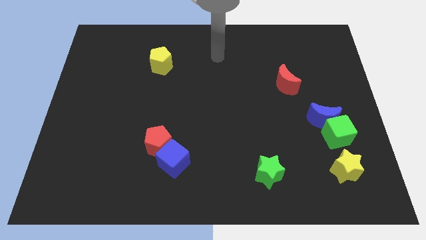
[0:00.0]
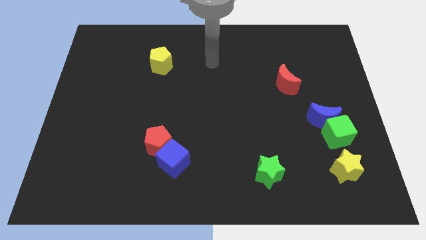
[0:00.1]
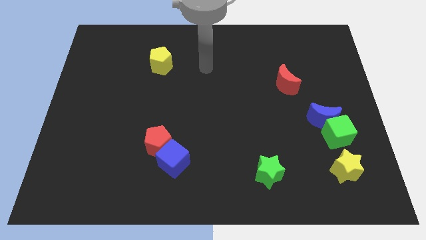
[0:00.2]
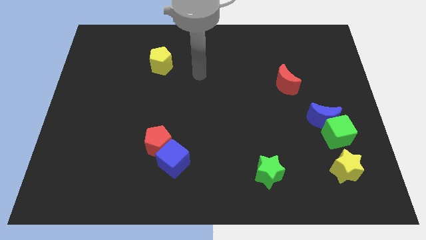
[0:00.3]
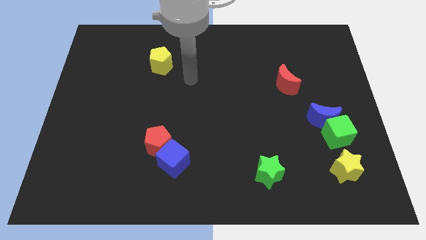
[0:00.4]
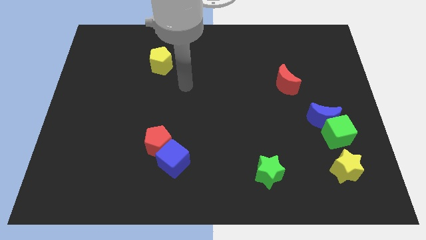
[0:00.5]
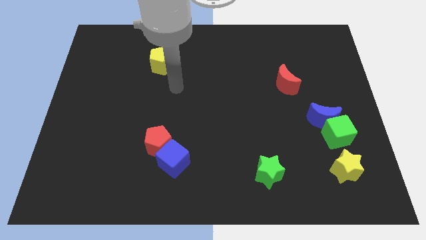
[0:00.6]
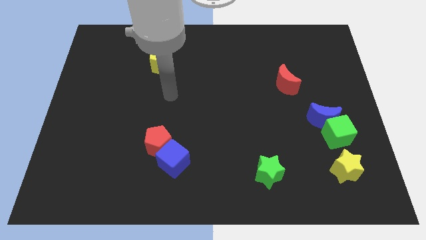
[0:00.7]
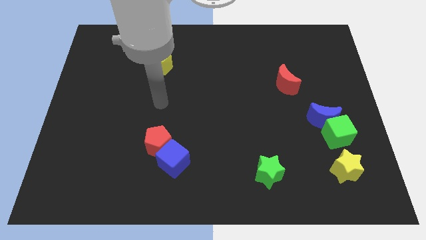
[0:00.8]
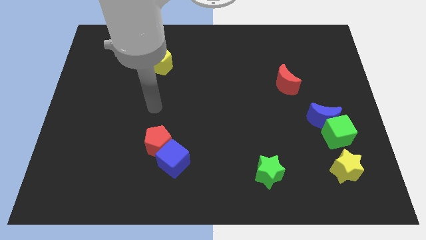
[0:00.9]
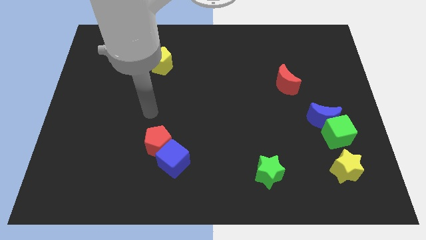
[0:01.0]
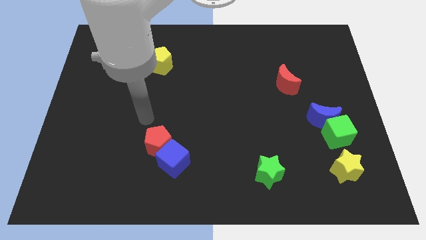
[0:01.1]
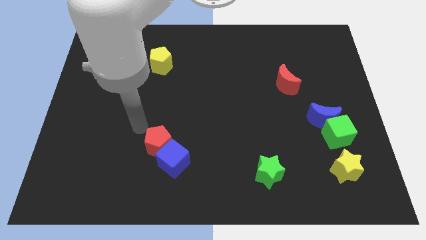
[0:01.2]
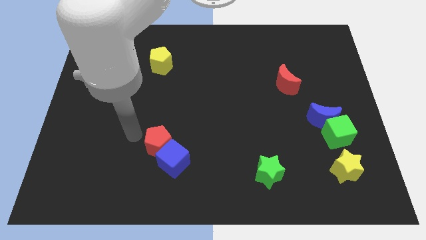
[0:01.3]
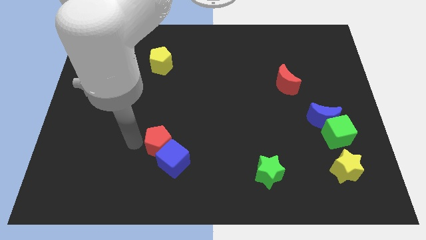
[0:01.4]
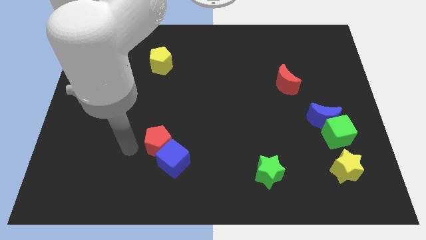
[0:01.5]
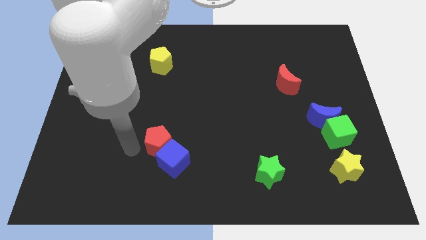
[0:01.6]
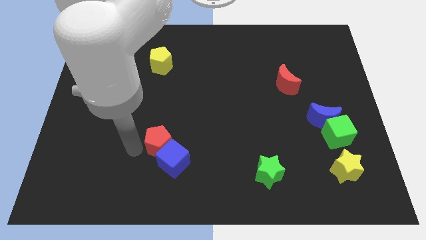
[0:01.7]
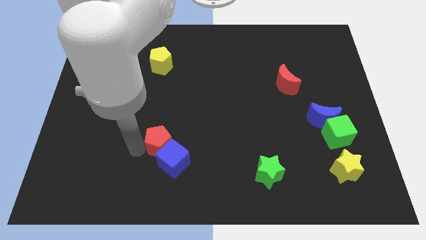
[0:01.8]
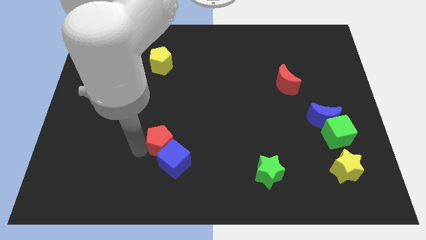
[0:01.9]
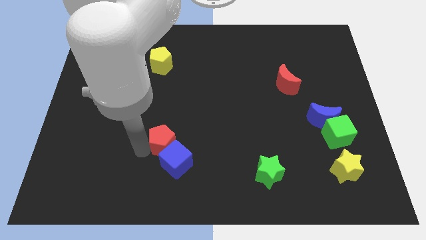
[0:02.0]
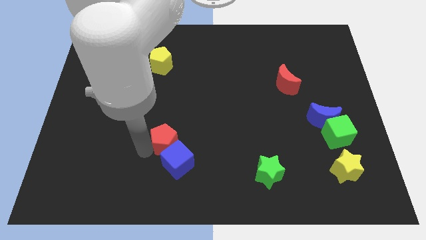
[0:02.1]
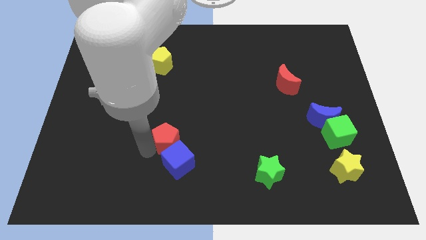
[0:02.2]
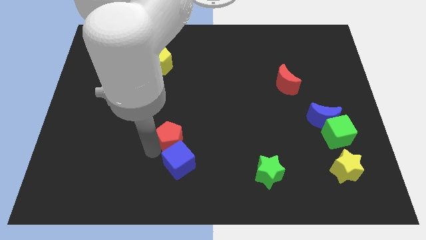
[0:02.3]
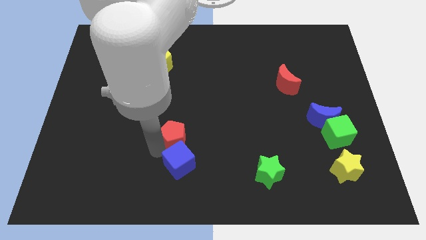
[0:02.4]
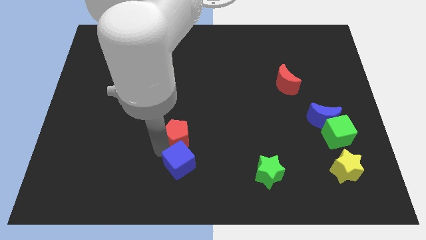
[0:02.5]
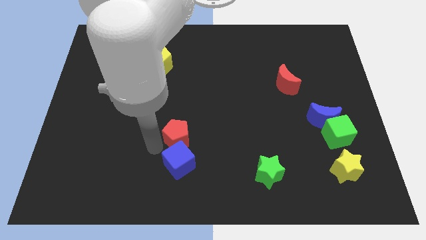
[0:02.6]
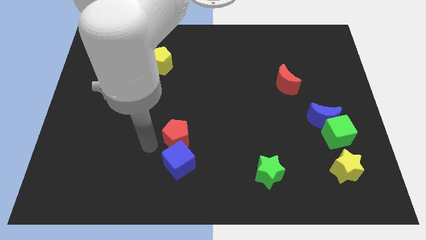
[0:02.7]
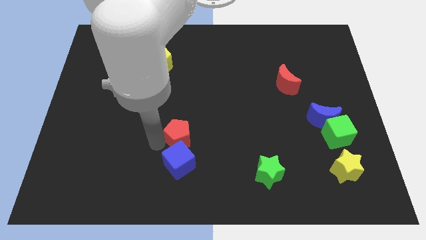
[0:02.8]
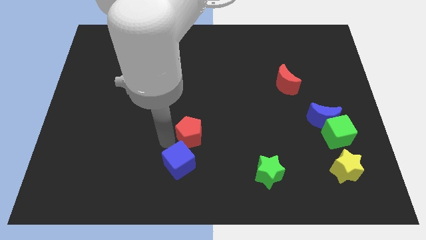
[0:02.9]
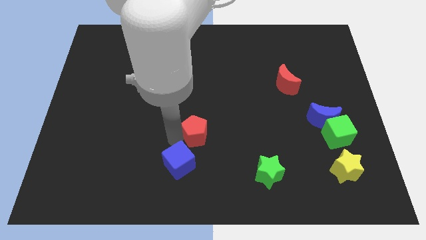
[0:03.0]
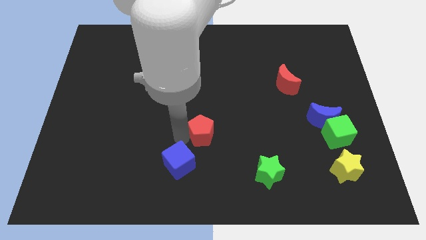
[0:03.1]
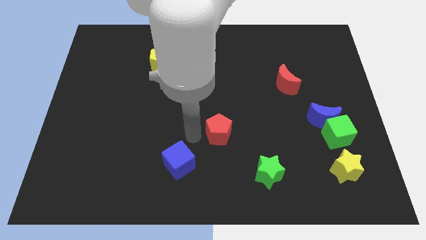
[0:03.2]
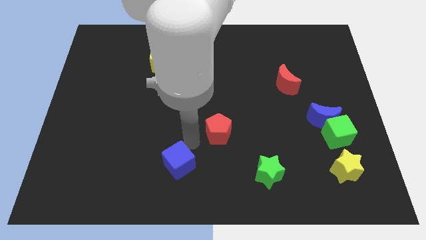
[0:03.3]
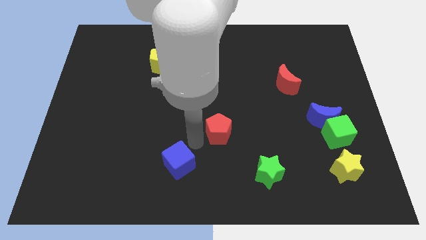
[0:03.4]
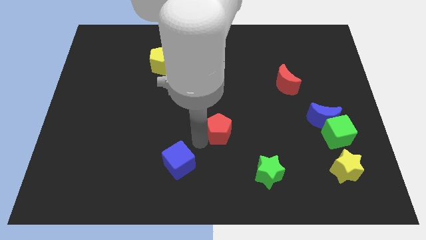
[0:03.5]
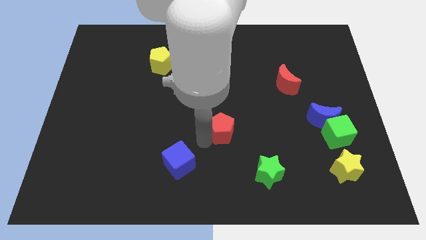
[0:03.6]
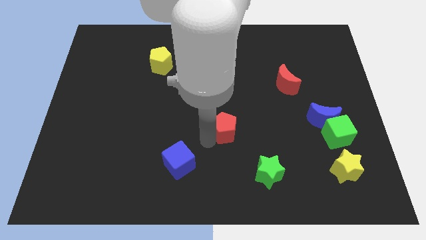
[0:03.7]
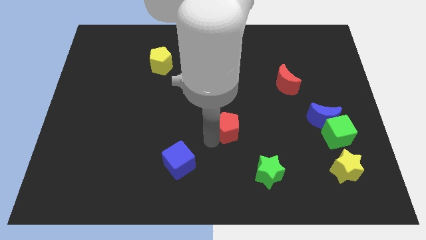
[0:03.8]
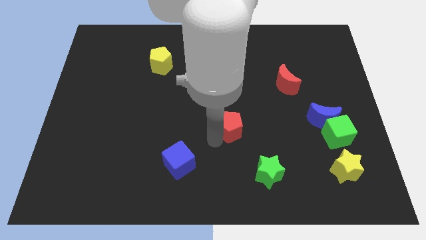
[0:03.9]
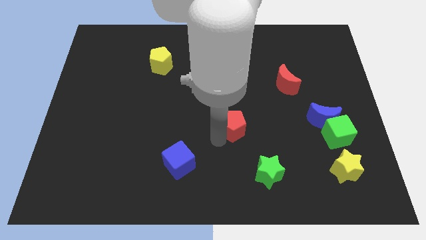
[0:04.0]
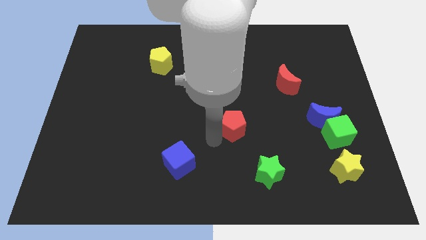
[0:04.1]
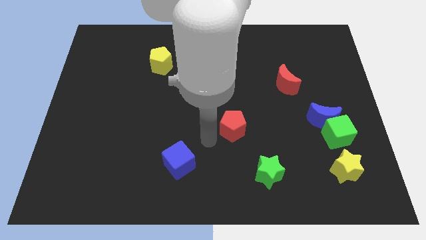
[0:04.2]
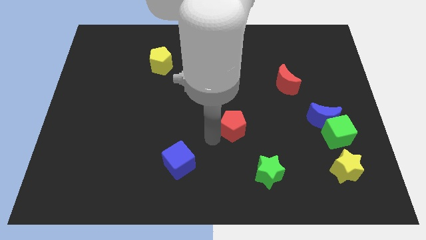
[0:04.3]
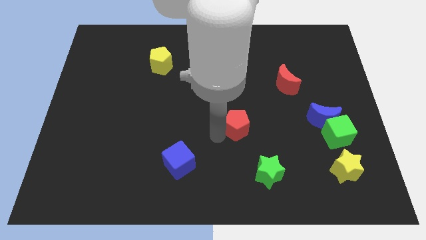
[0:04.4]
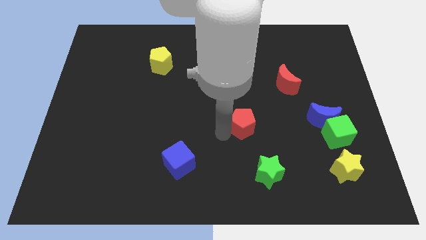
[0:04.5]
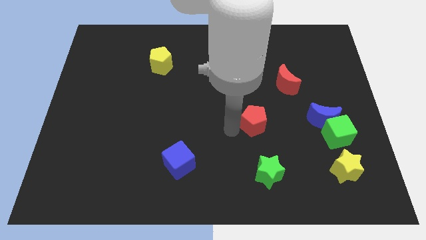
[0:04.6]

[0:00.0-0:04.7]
move the red pentagon just left of the blue moon

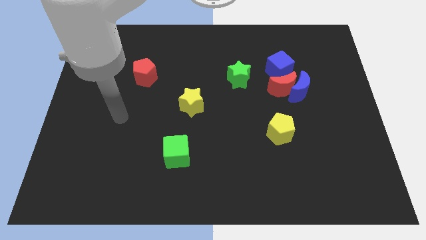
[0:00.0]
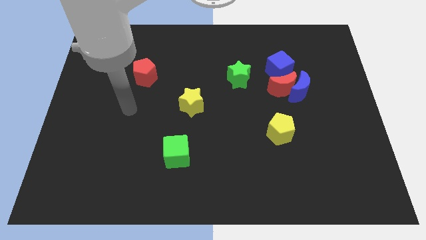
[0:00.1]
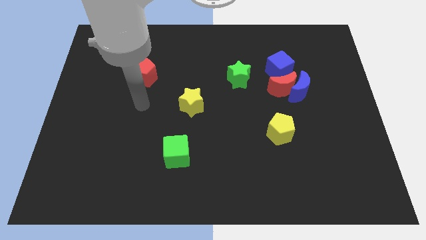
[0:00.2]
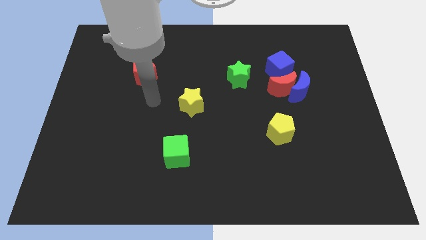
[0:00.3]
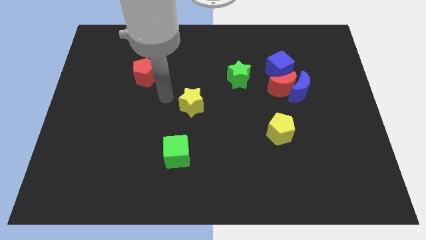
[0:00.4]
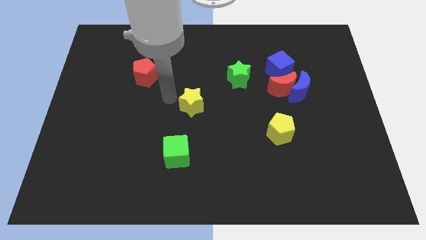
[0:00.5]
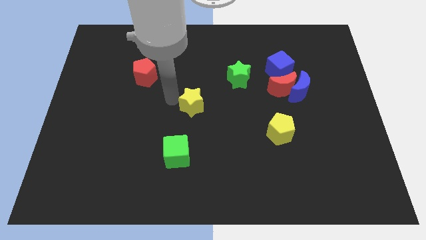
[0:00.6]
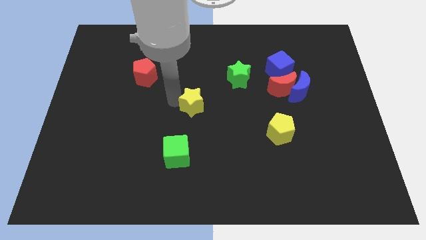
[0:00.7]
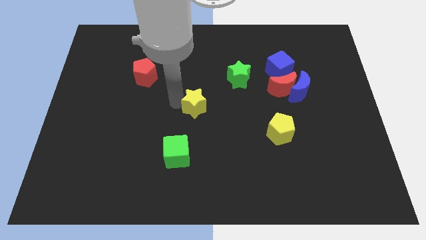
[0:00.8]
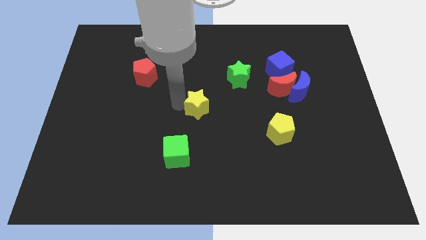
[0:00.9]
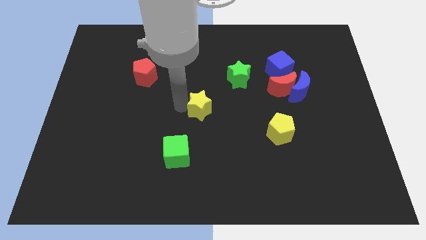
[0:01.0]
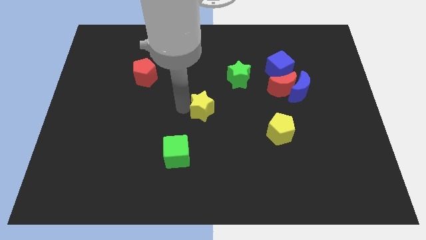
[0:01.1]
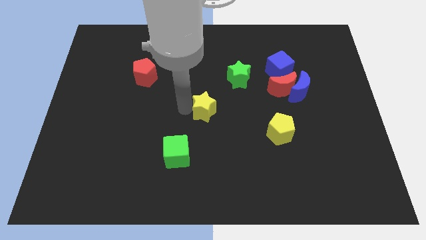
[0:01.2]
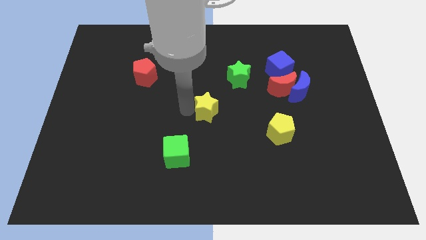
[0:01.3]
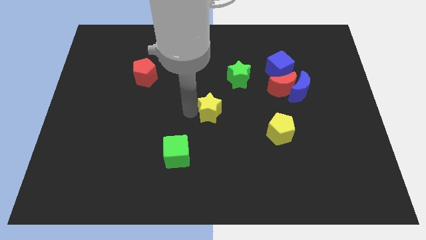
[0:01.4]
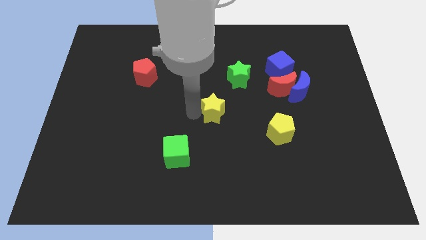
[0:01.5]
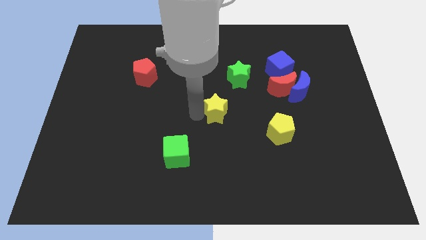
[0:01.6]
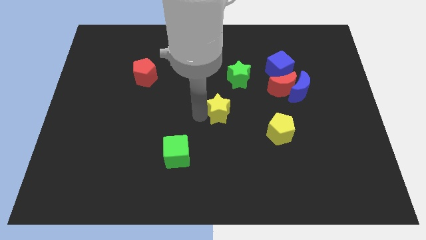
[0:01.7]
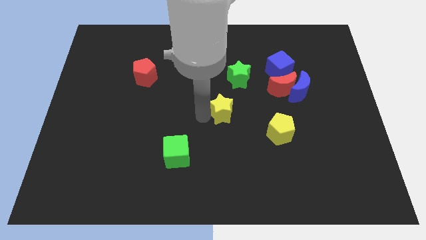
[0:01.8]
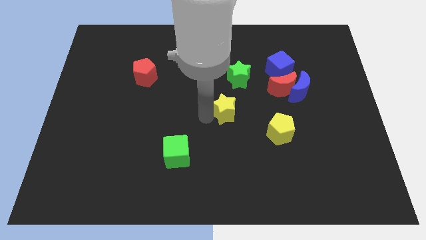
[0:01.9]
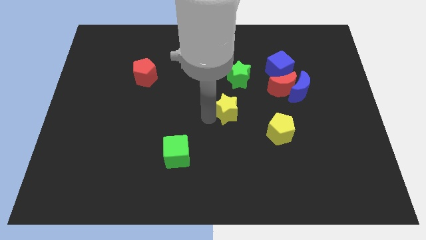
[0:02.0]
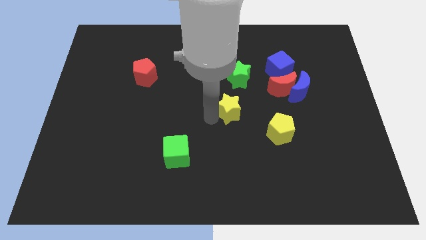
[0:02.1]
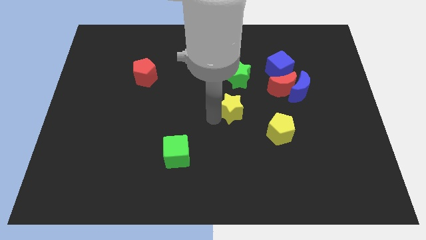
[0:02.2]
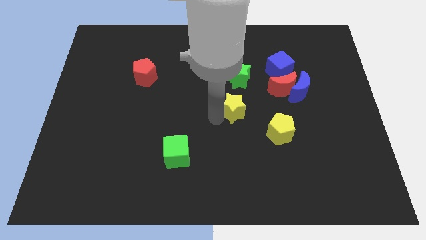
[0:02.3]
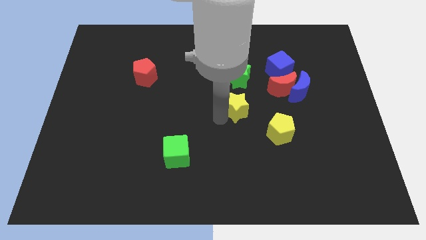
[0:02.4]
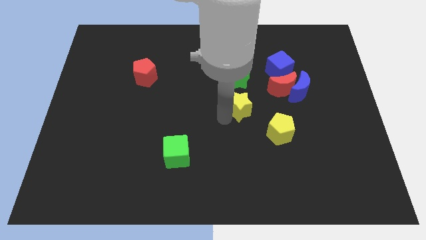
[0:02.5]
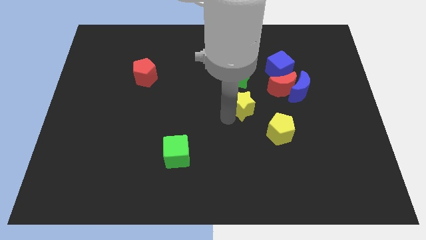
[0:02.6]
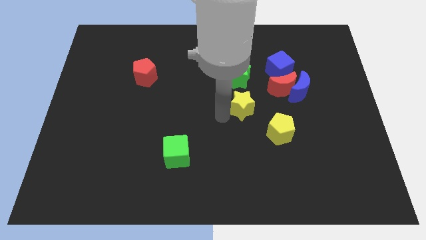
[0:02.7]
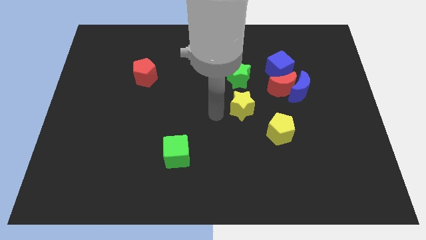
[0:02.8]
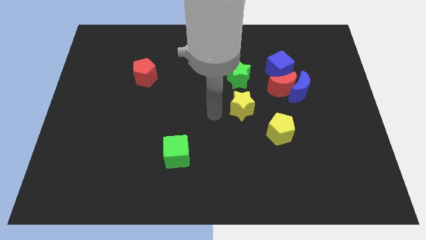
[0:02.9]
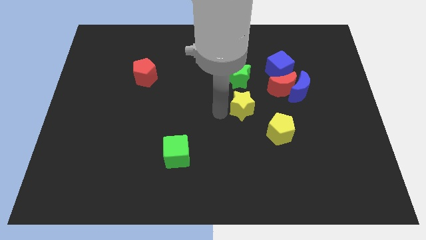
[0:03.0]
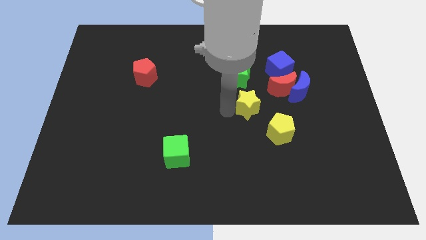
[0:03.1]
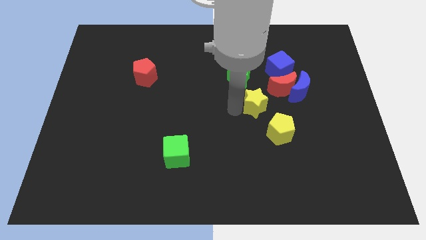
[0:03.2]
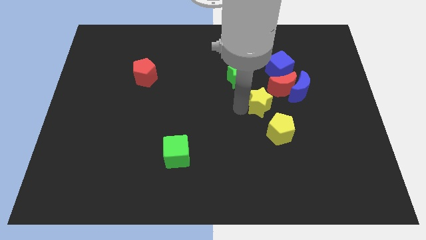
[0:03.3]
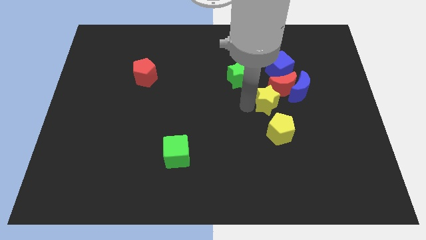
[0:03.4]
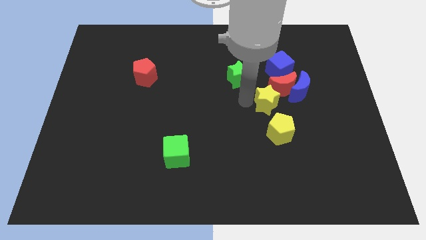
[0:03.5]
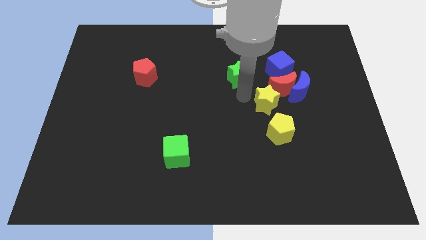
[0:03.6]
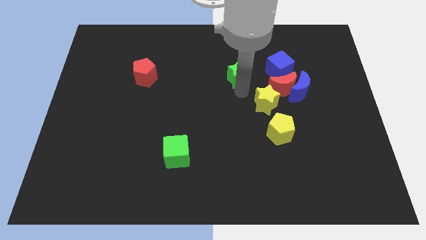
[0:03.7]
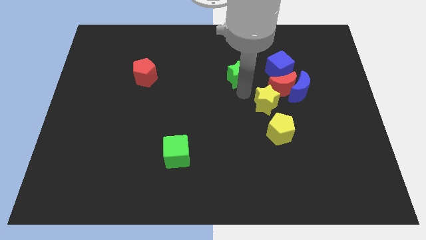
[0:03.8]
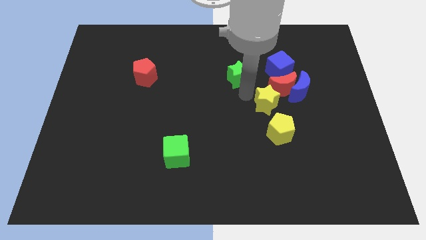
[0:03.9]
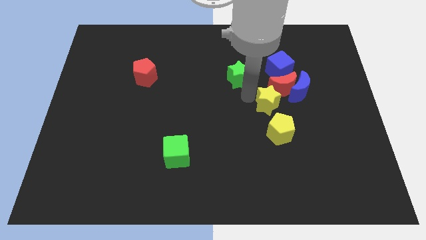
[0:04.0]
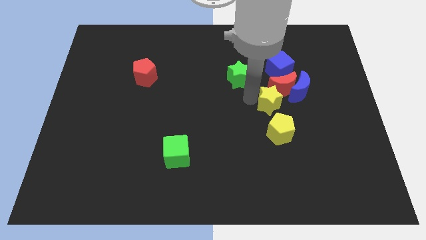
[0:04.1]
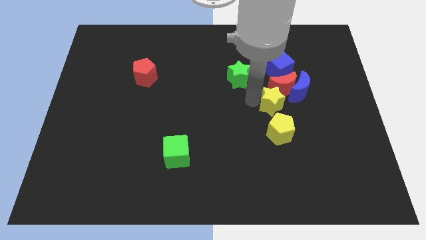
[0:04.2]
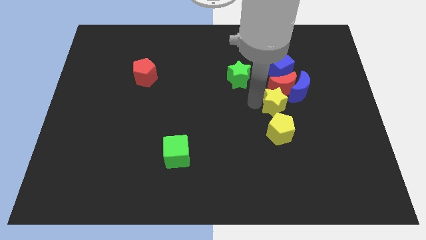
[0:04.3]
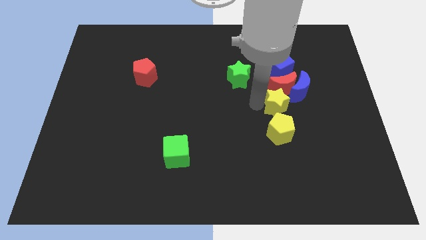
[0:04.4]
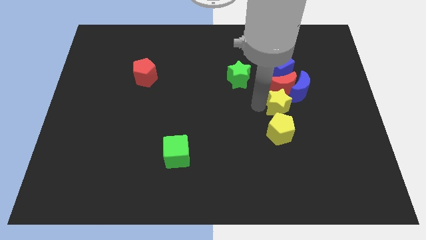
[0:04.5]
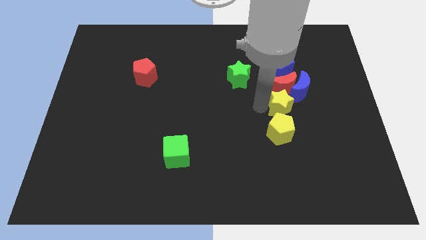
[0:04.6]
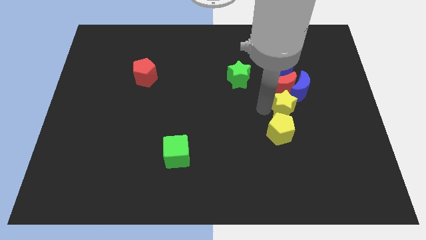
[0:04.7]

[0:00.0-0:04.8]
slide the yellow star to the bottom side of the blue moon
